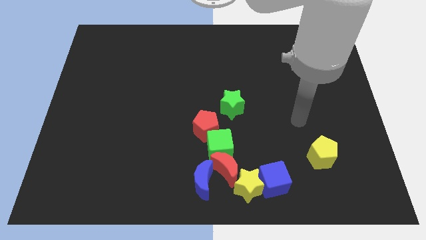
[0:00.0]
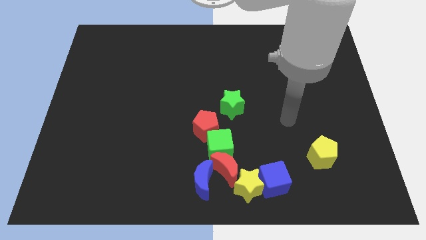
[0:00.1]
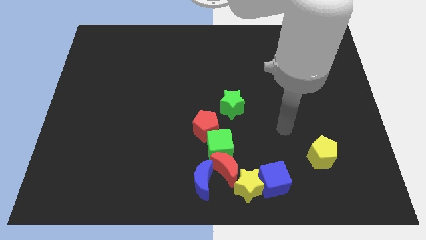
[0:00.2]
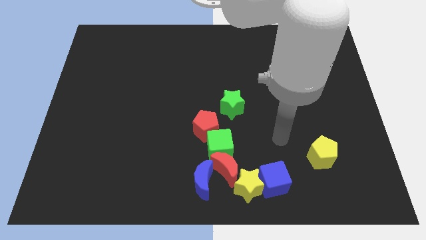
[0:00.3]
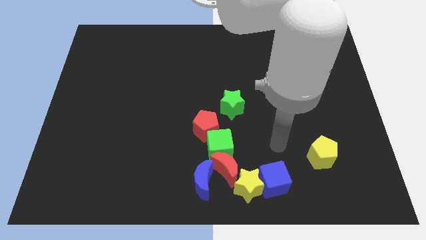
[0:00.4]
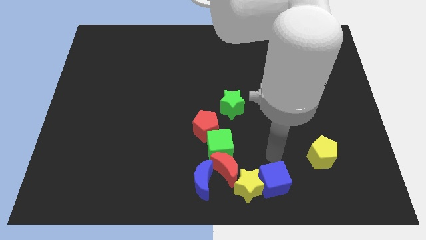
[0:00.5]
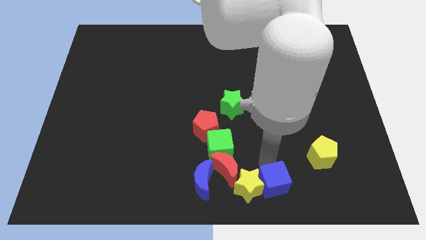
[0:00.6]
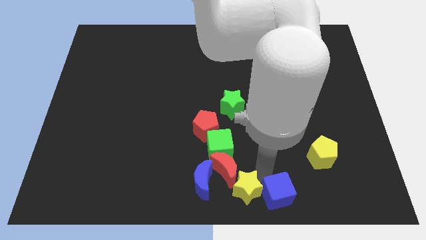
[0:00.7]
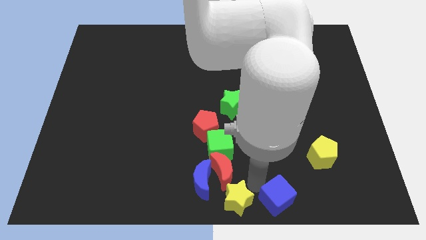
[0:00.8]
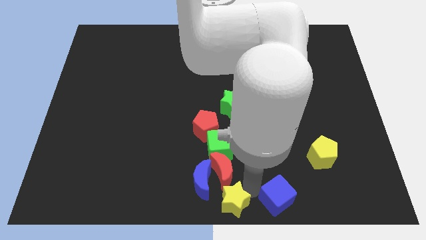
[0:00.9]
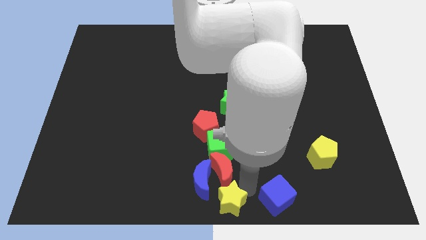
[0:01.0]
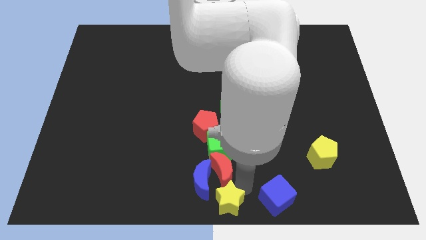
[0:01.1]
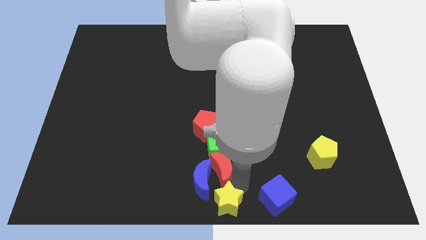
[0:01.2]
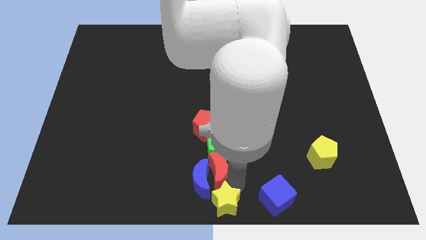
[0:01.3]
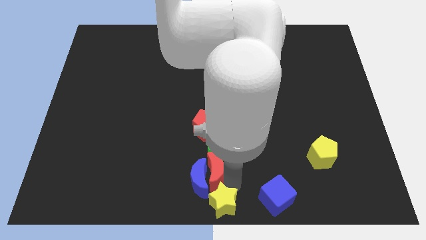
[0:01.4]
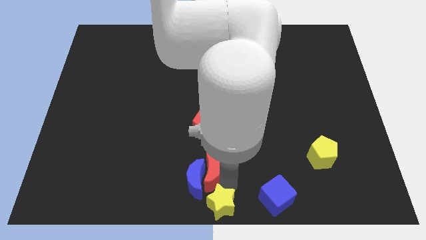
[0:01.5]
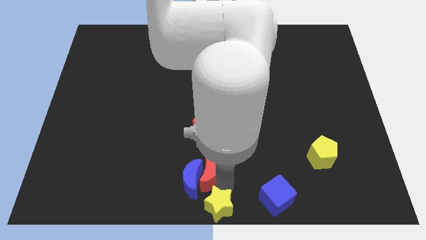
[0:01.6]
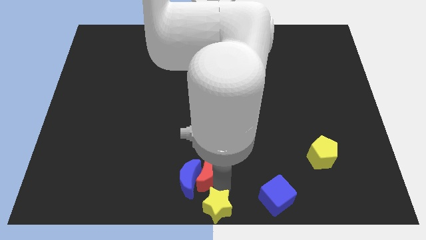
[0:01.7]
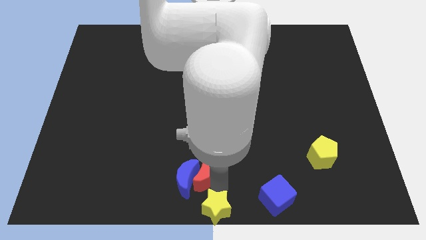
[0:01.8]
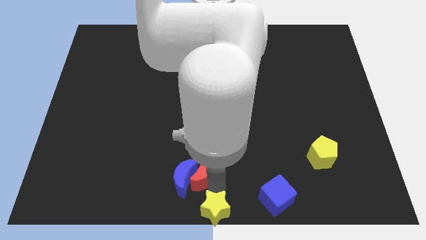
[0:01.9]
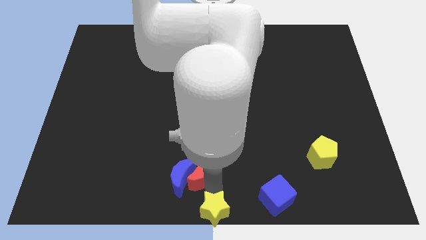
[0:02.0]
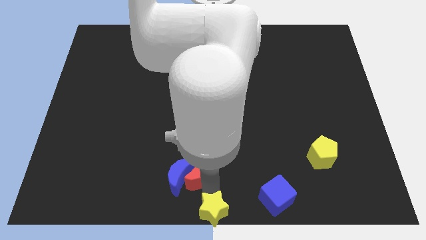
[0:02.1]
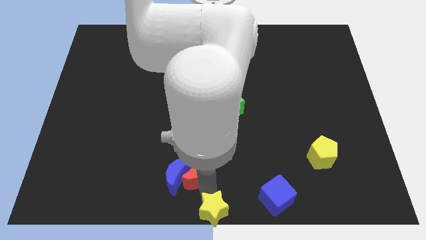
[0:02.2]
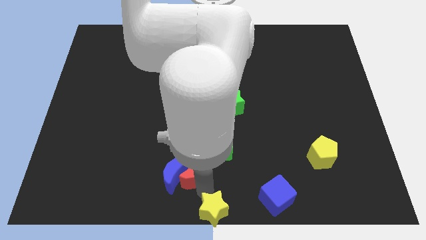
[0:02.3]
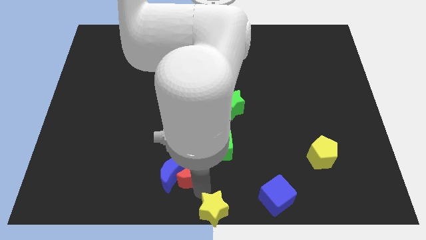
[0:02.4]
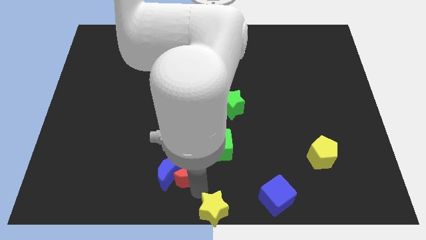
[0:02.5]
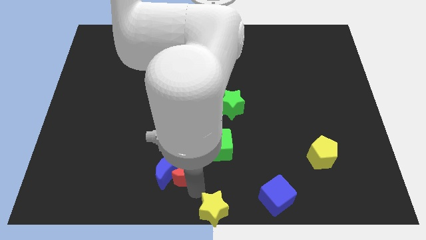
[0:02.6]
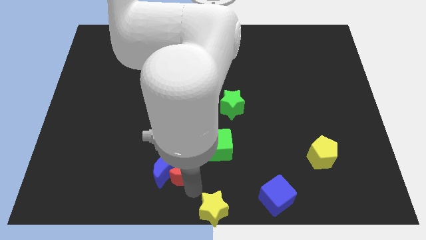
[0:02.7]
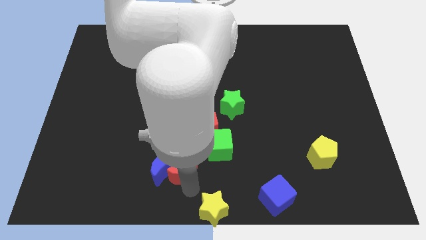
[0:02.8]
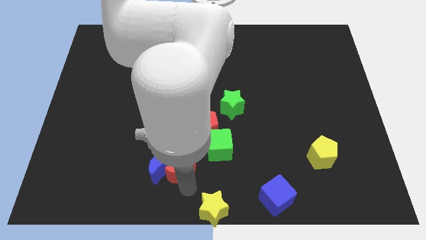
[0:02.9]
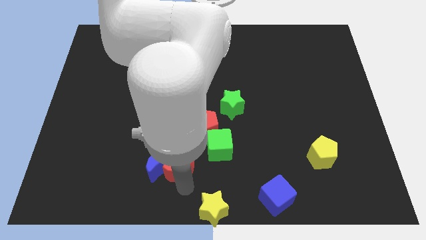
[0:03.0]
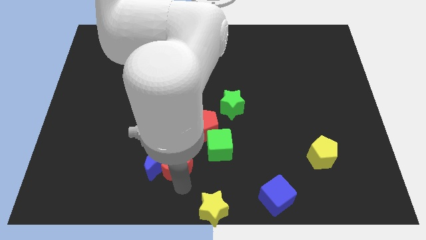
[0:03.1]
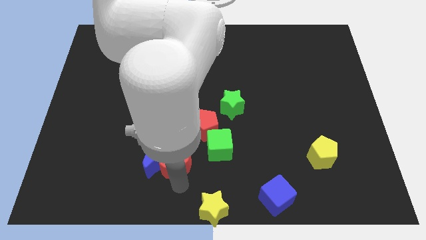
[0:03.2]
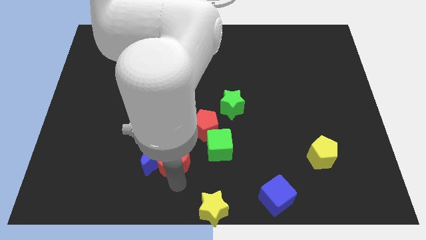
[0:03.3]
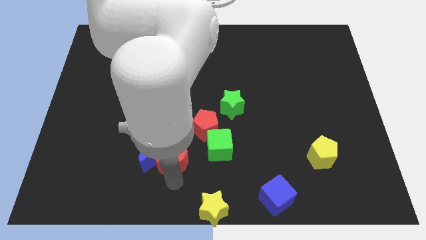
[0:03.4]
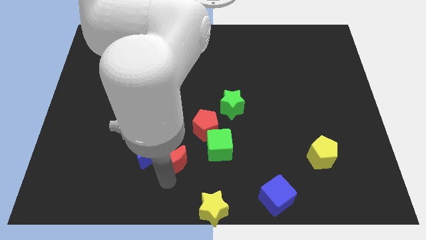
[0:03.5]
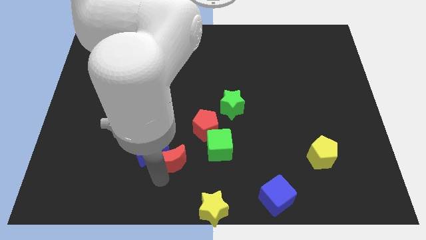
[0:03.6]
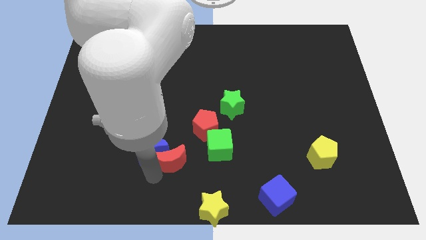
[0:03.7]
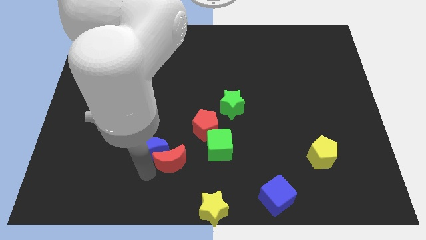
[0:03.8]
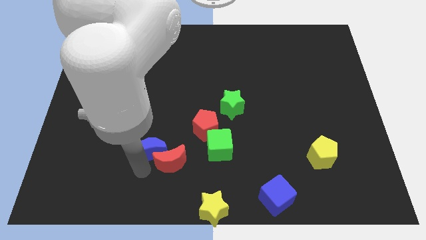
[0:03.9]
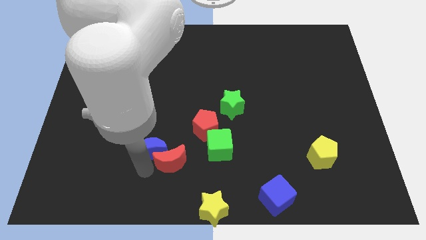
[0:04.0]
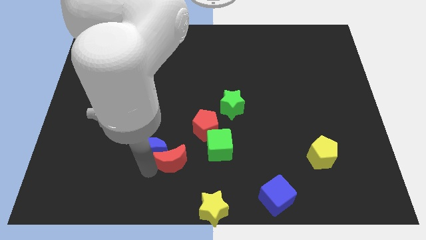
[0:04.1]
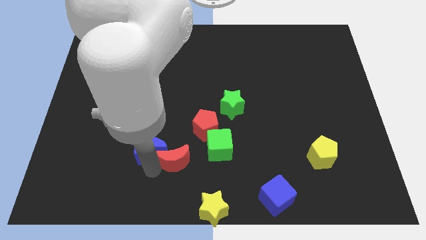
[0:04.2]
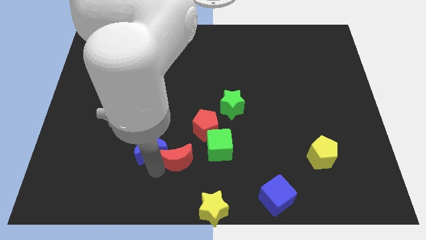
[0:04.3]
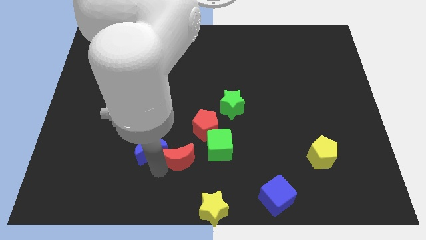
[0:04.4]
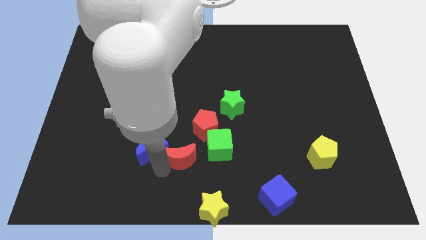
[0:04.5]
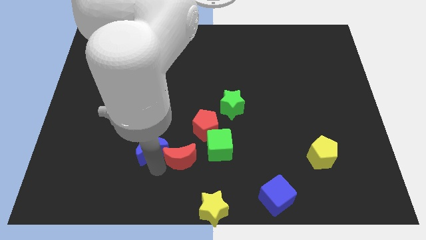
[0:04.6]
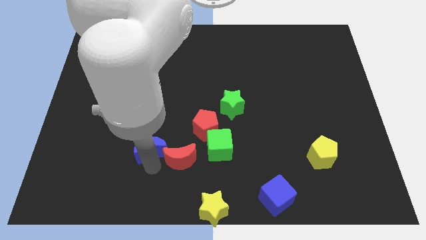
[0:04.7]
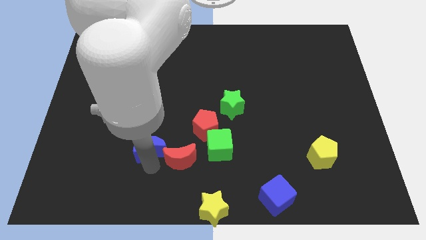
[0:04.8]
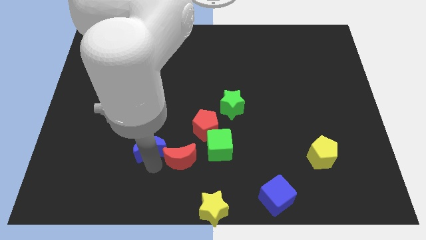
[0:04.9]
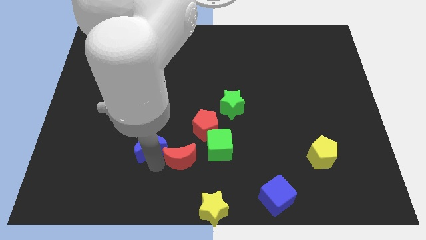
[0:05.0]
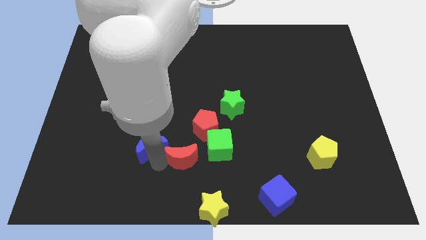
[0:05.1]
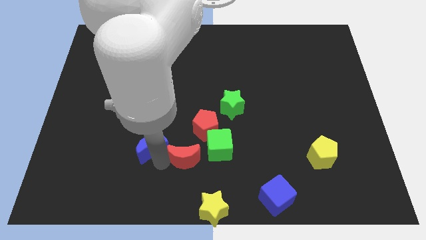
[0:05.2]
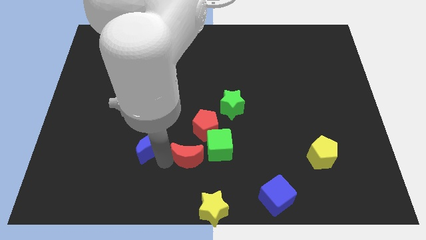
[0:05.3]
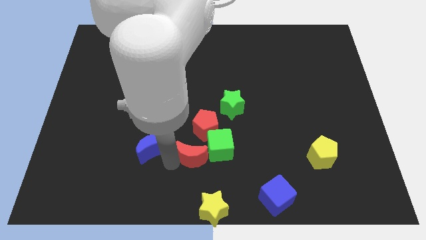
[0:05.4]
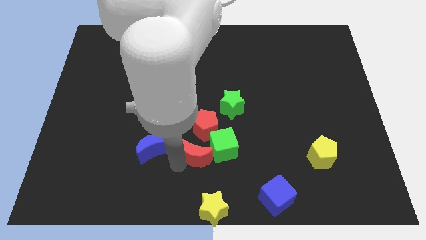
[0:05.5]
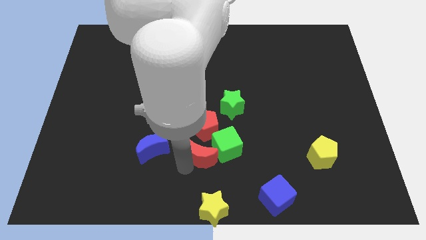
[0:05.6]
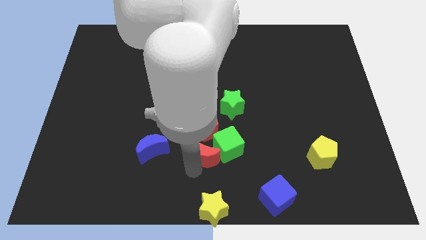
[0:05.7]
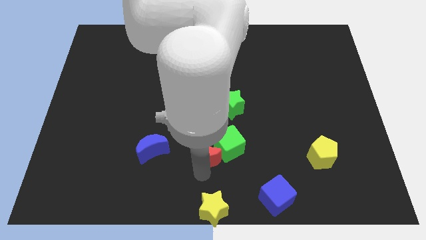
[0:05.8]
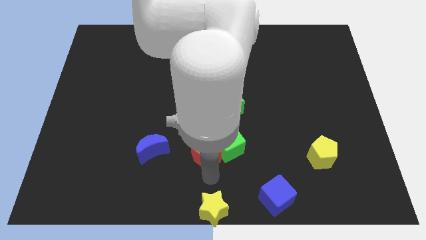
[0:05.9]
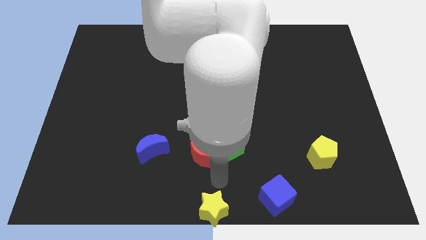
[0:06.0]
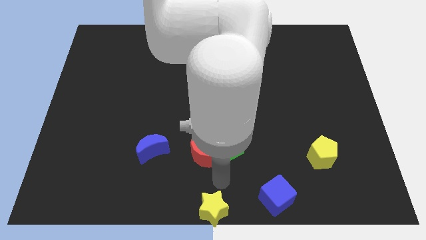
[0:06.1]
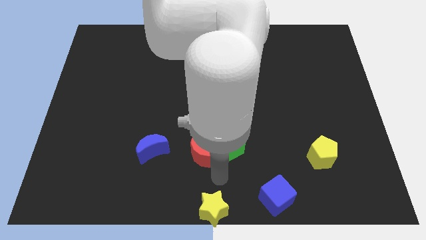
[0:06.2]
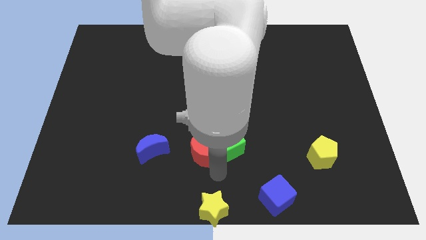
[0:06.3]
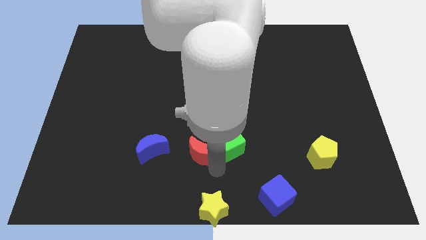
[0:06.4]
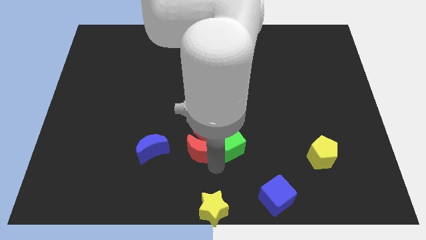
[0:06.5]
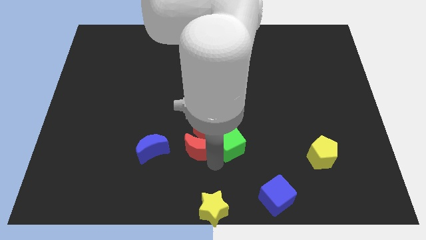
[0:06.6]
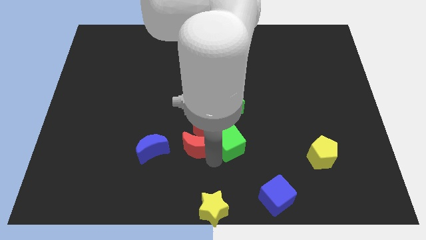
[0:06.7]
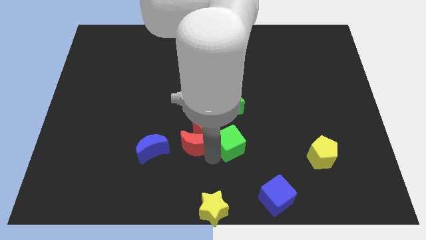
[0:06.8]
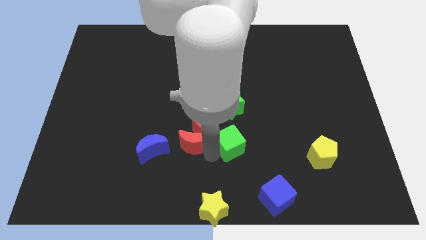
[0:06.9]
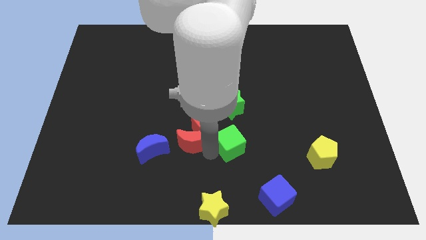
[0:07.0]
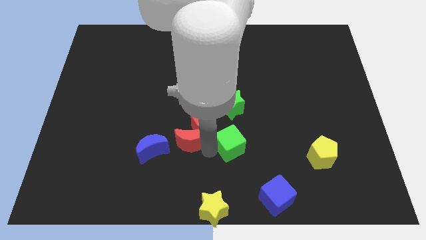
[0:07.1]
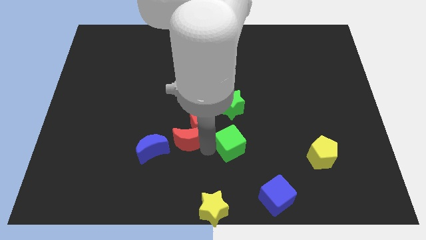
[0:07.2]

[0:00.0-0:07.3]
move the red moon away from the group

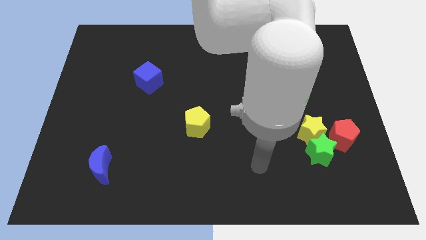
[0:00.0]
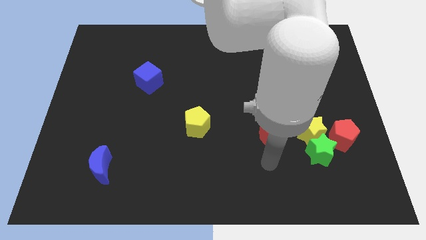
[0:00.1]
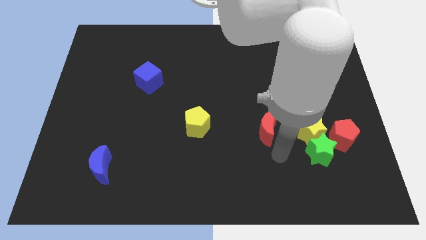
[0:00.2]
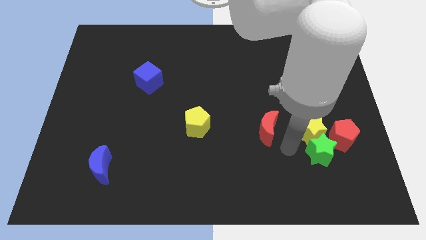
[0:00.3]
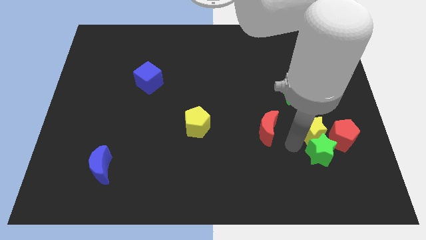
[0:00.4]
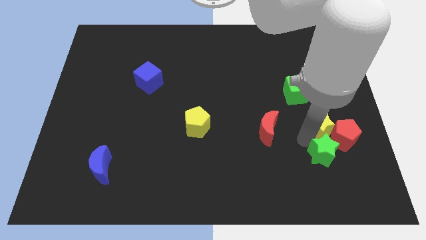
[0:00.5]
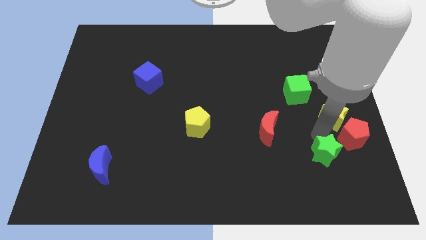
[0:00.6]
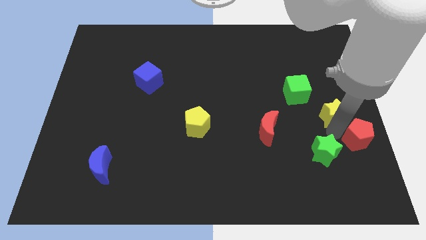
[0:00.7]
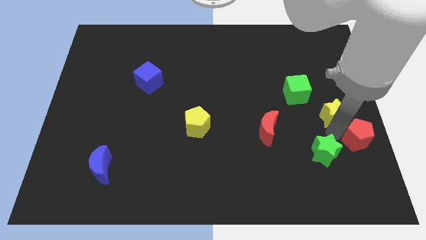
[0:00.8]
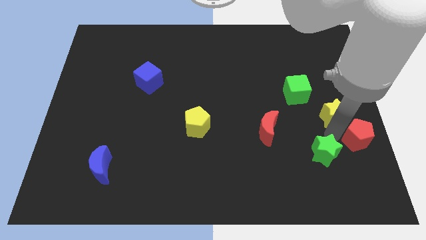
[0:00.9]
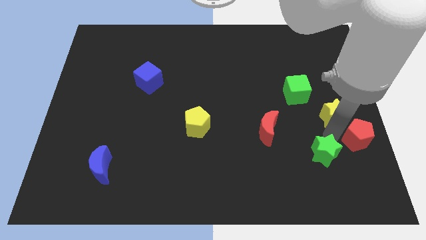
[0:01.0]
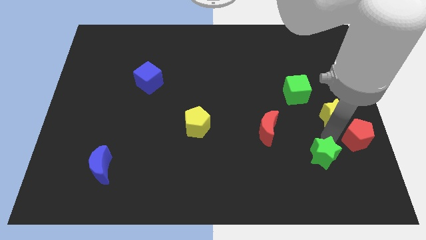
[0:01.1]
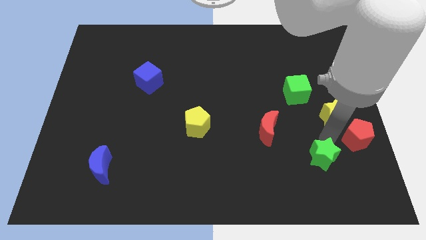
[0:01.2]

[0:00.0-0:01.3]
separate the green star from the yellow star and red pentagon

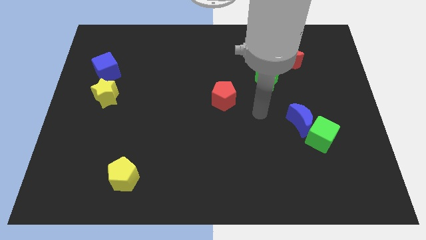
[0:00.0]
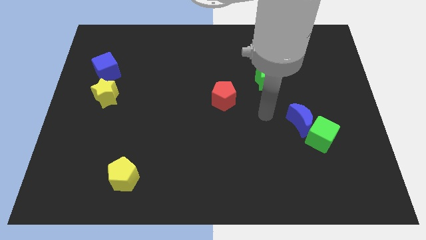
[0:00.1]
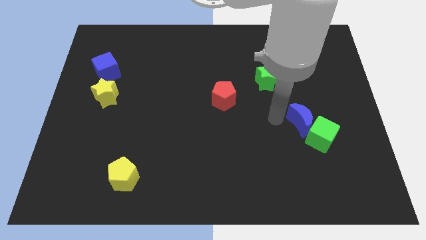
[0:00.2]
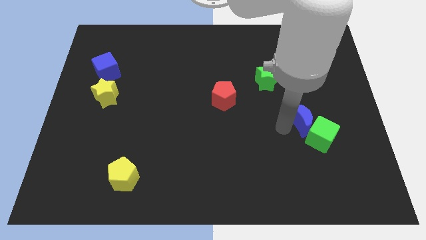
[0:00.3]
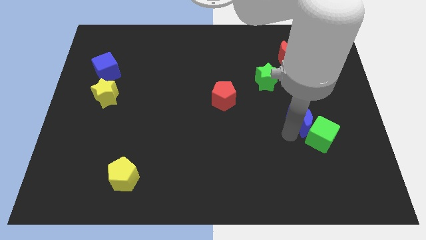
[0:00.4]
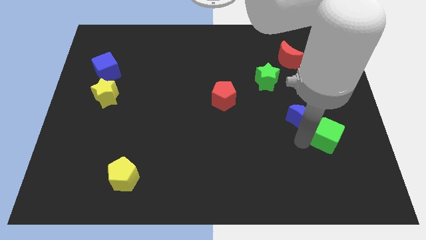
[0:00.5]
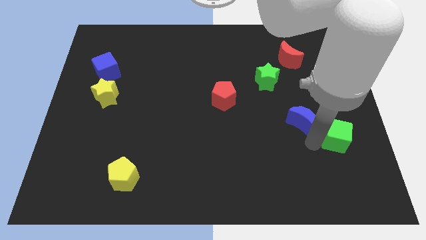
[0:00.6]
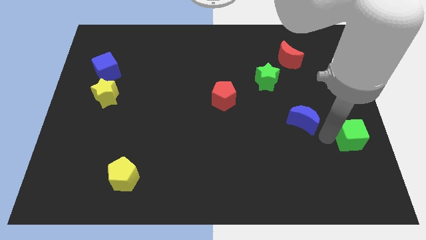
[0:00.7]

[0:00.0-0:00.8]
separate the blue moon from the green cube
